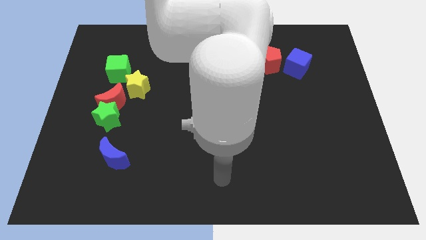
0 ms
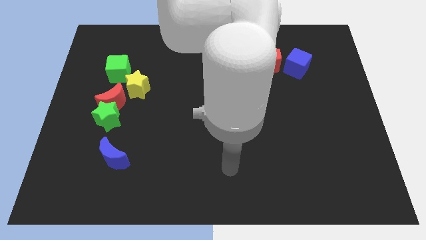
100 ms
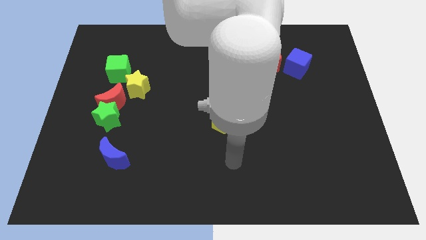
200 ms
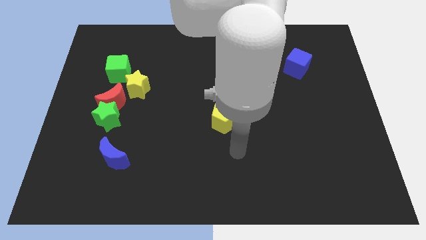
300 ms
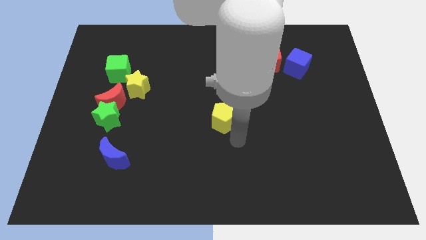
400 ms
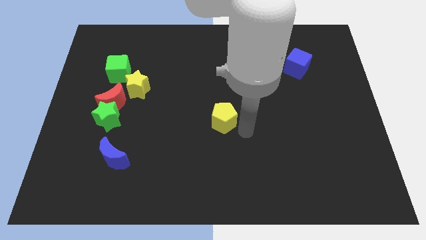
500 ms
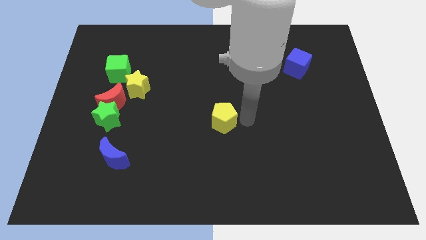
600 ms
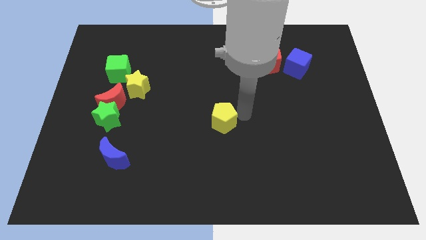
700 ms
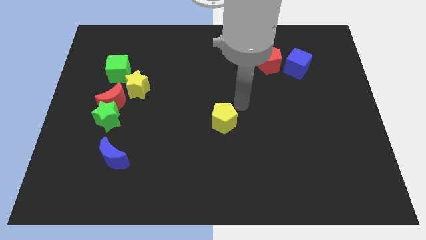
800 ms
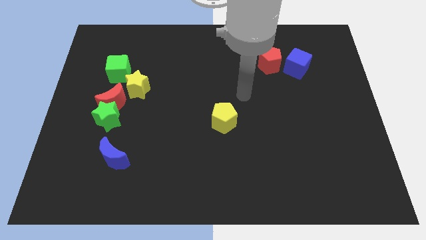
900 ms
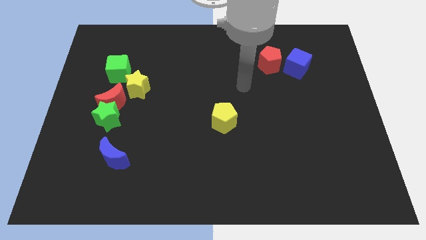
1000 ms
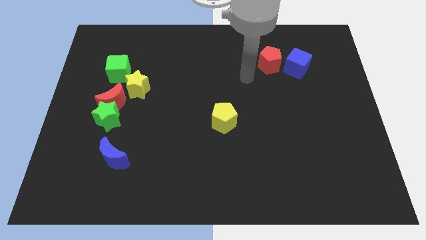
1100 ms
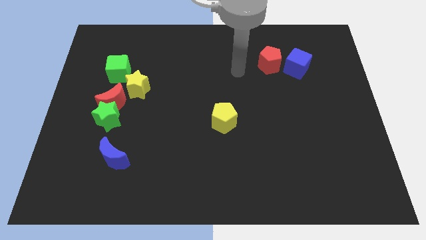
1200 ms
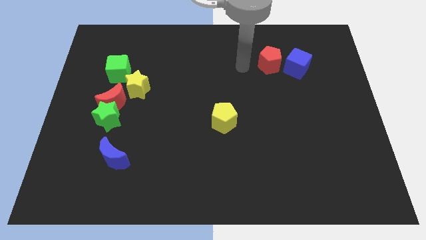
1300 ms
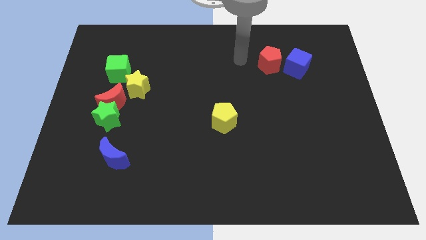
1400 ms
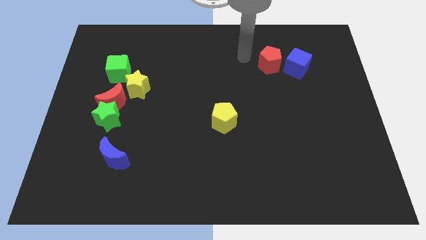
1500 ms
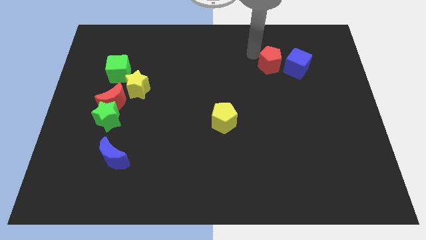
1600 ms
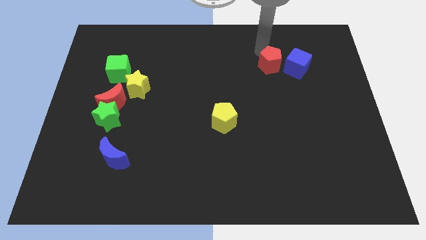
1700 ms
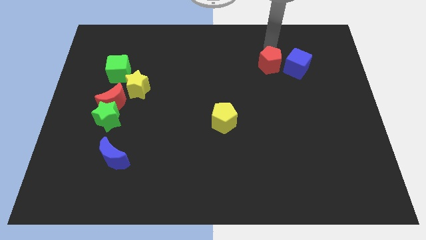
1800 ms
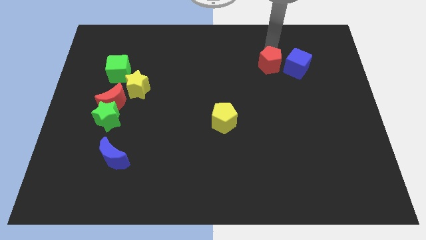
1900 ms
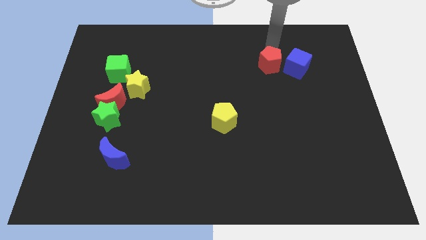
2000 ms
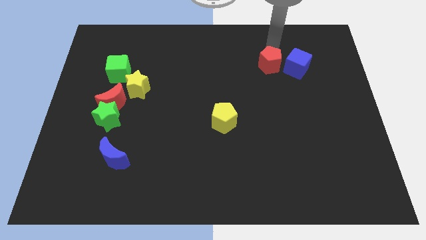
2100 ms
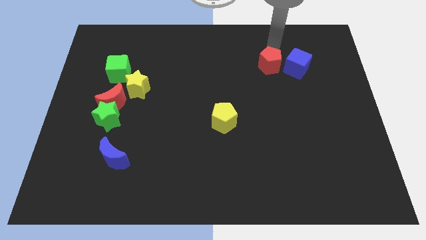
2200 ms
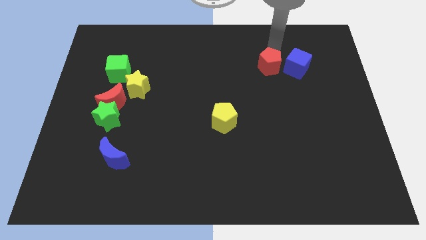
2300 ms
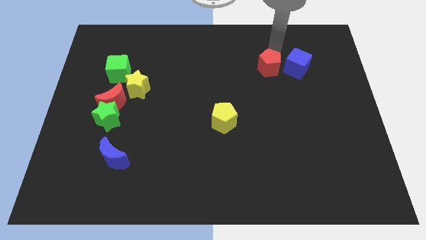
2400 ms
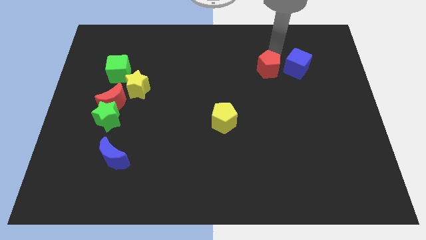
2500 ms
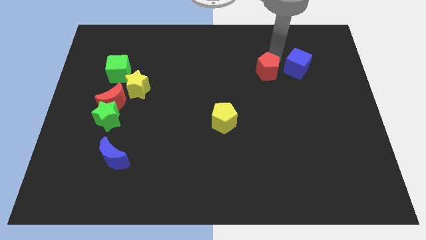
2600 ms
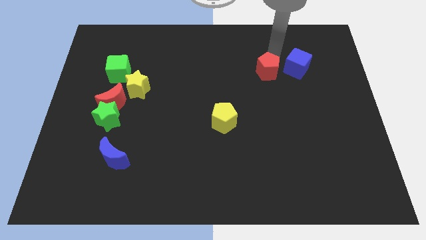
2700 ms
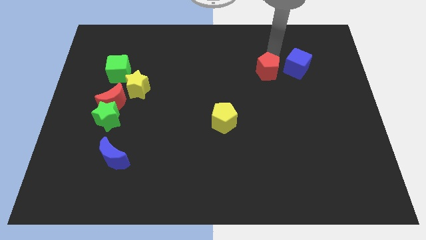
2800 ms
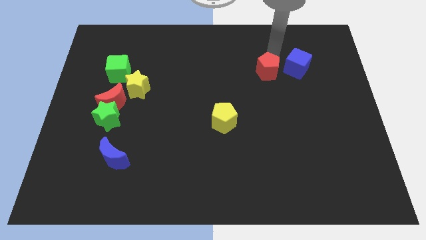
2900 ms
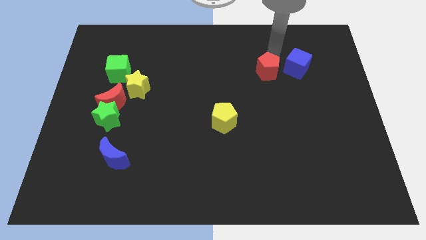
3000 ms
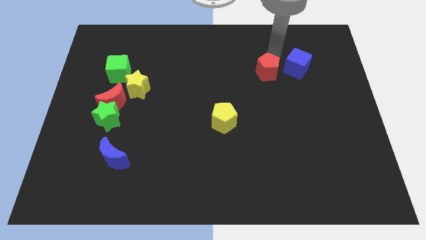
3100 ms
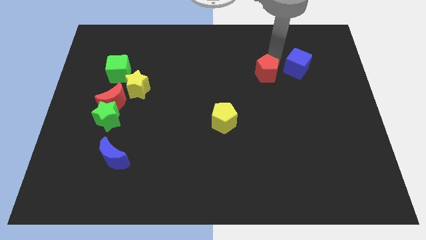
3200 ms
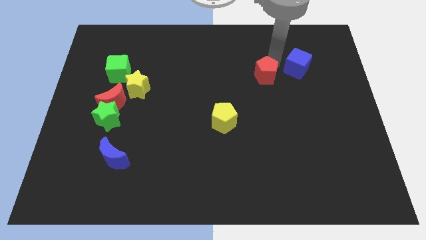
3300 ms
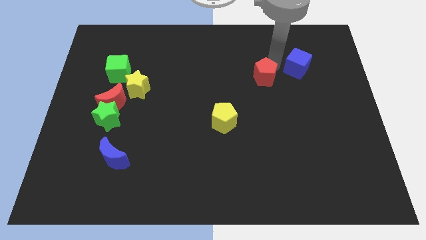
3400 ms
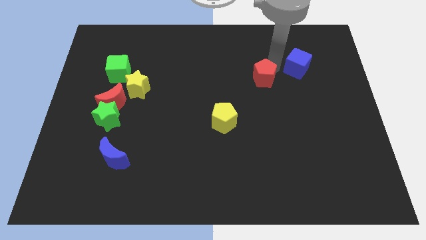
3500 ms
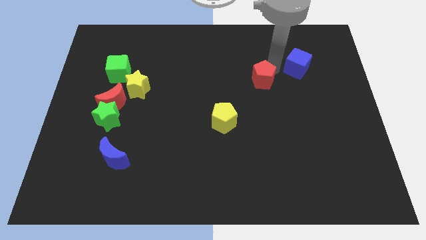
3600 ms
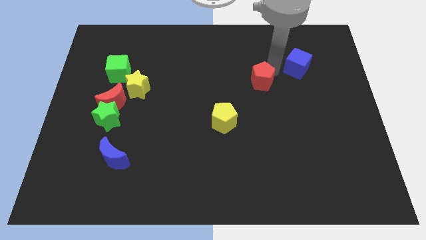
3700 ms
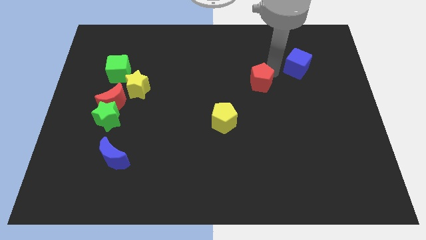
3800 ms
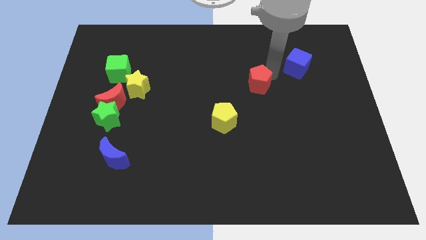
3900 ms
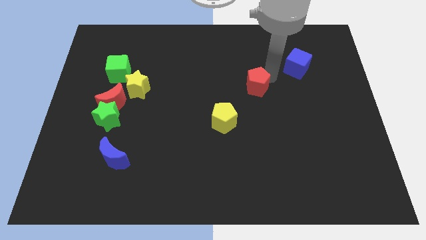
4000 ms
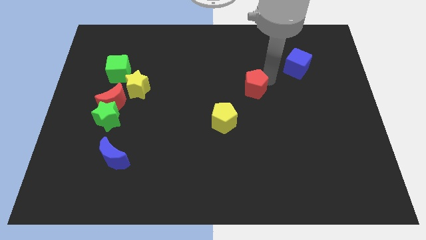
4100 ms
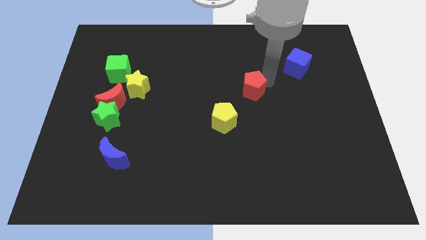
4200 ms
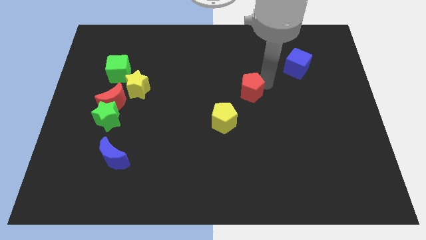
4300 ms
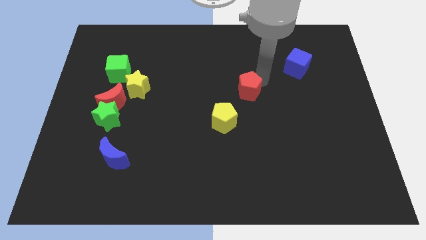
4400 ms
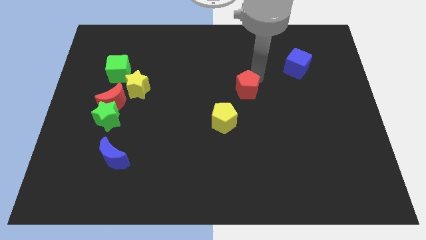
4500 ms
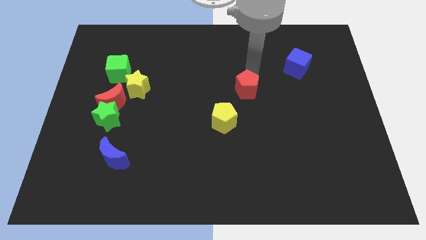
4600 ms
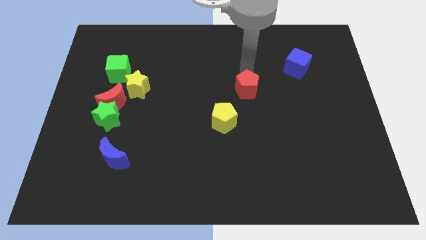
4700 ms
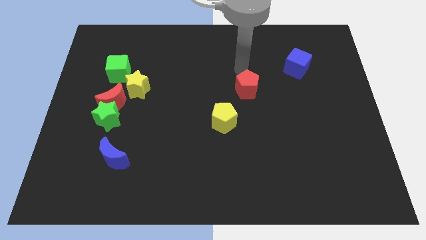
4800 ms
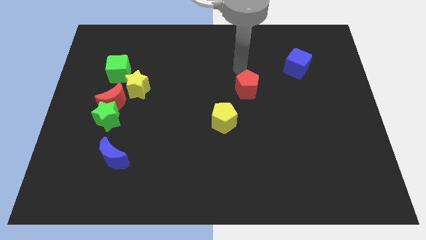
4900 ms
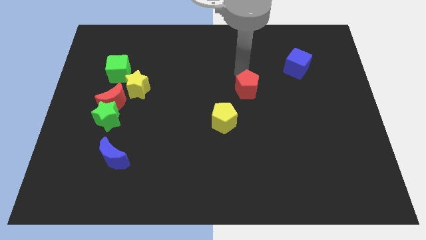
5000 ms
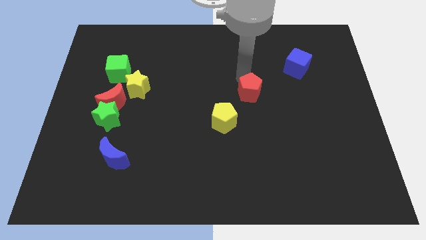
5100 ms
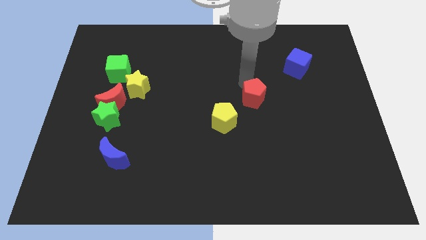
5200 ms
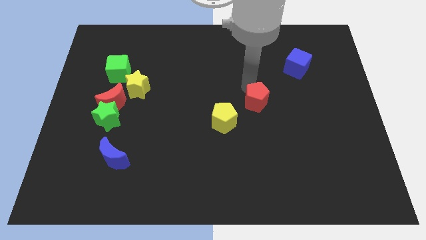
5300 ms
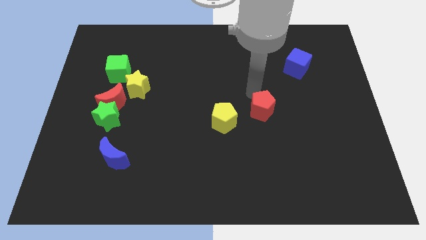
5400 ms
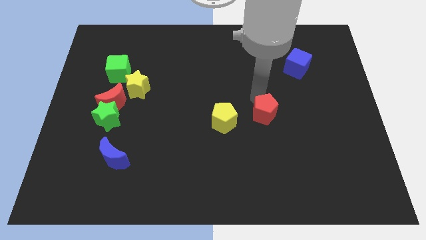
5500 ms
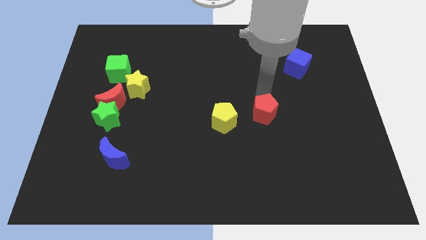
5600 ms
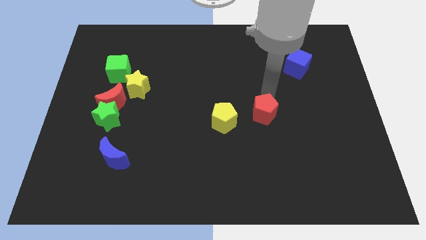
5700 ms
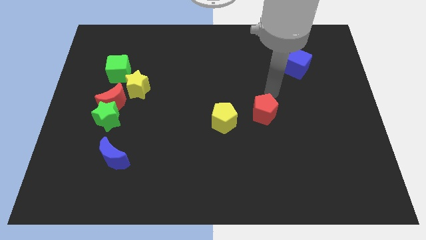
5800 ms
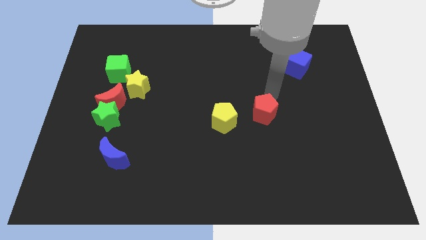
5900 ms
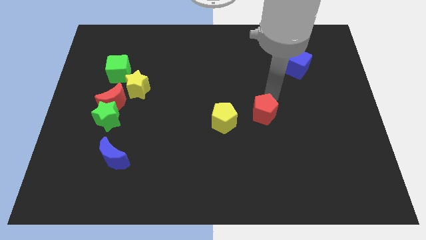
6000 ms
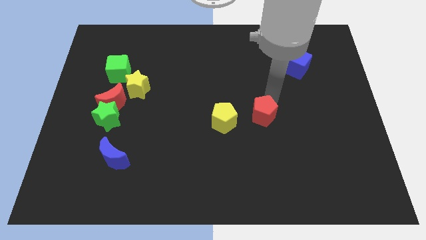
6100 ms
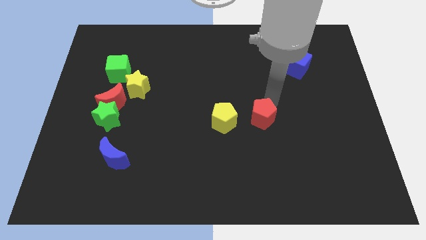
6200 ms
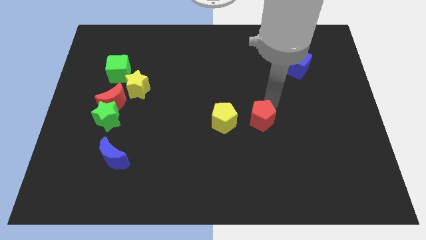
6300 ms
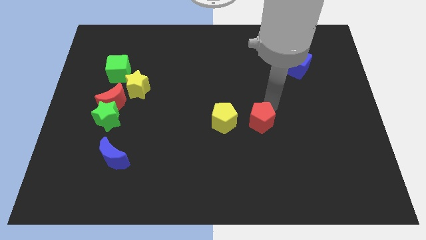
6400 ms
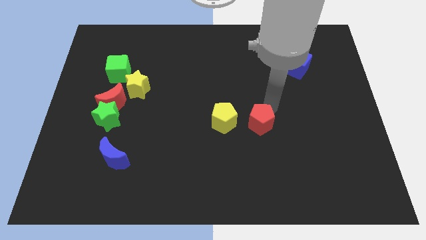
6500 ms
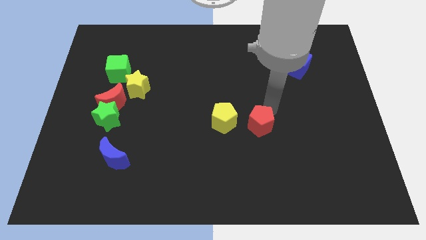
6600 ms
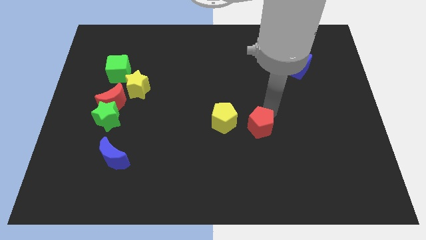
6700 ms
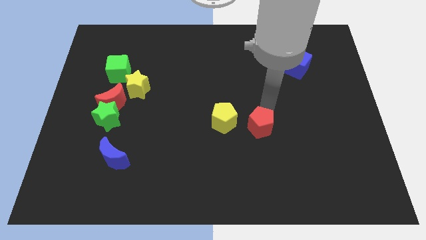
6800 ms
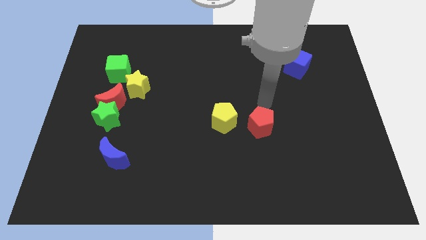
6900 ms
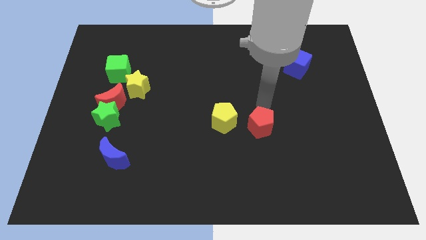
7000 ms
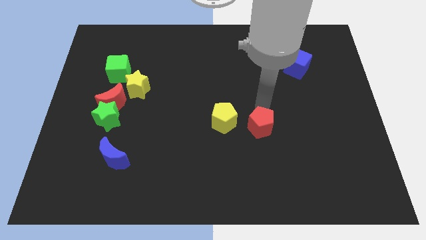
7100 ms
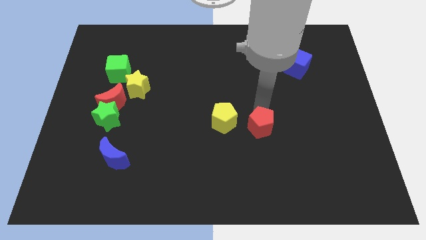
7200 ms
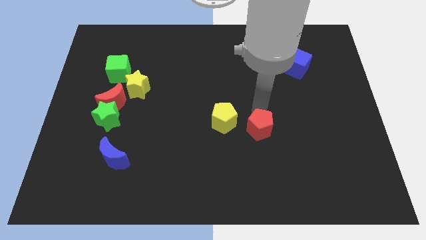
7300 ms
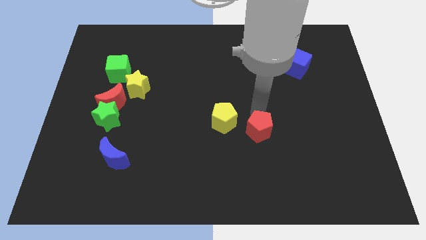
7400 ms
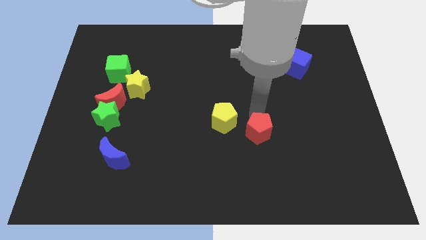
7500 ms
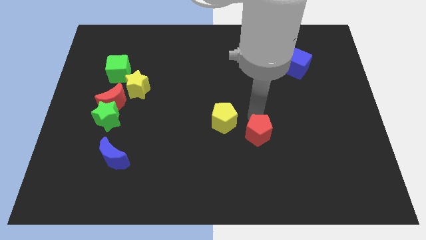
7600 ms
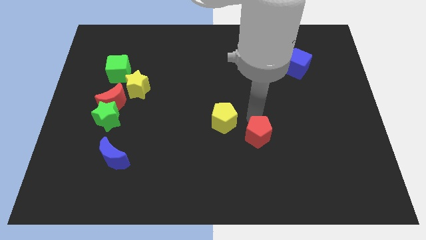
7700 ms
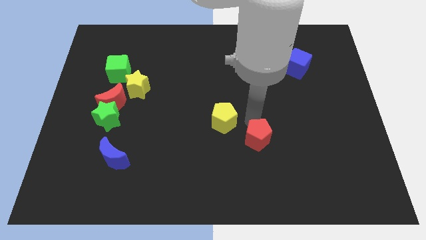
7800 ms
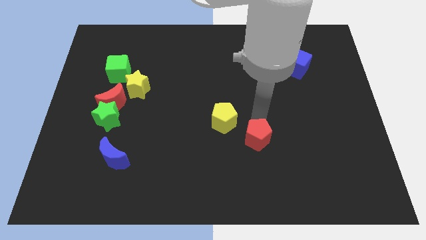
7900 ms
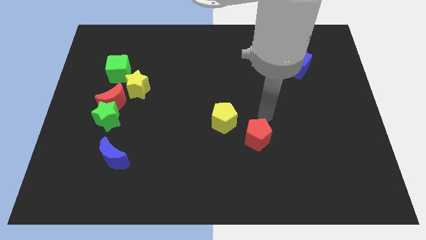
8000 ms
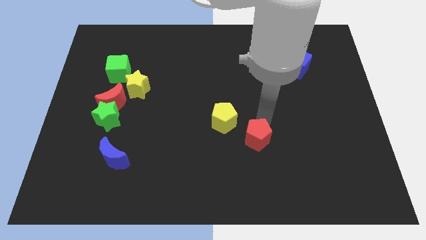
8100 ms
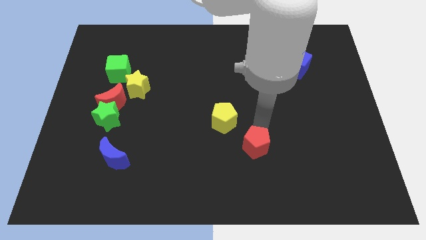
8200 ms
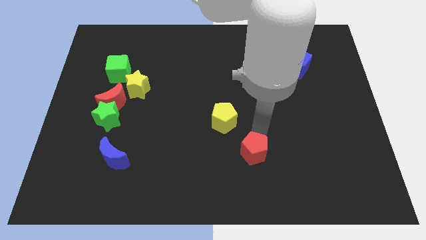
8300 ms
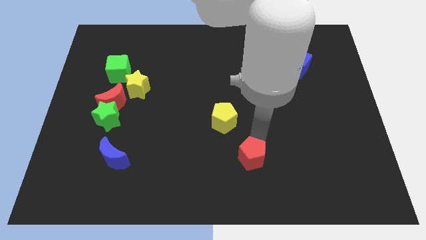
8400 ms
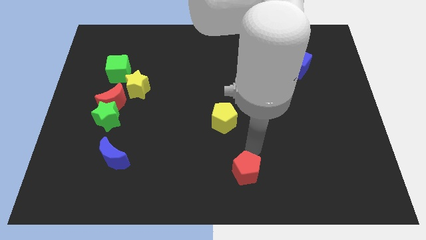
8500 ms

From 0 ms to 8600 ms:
slide the red pentagon to the bottom side
